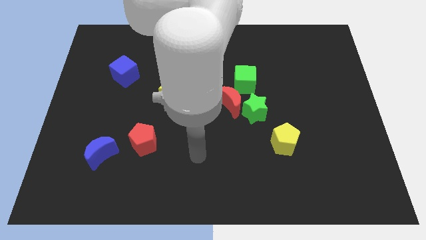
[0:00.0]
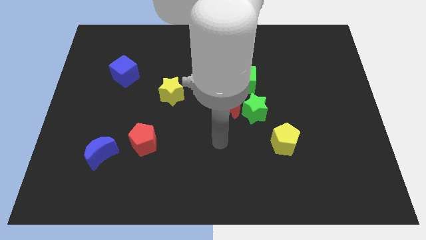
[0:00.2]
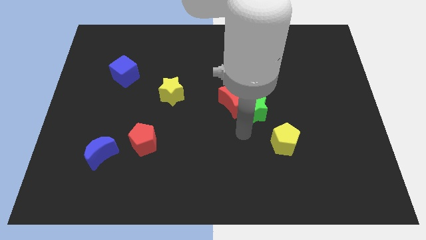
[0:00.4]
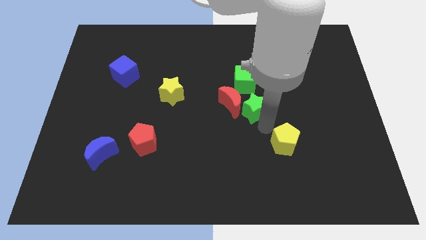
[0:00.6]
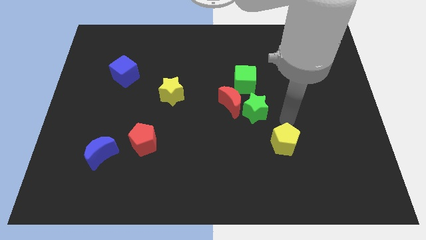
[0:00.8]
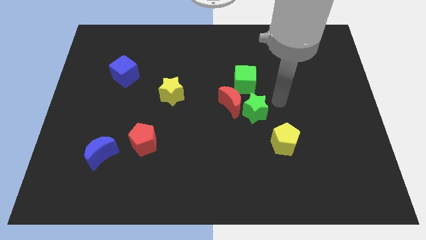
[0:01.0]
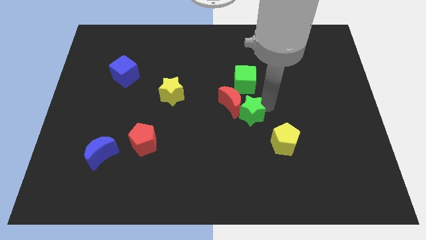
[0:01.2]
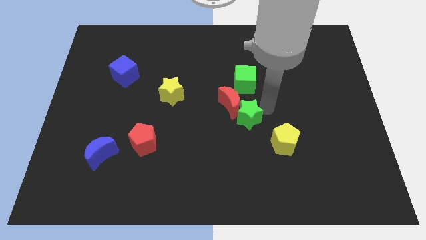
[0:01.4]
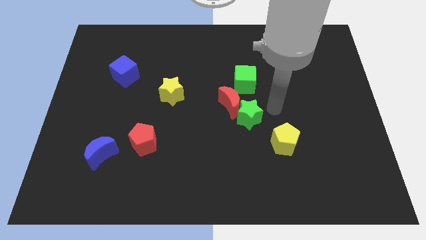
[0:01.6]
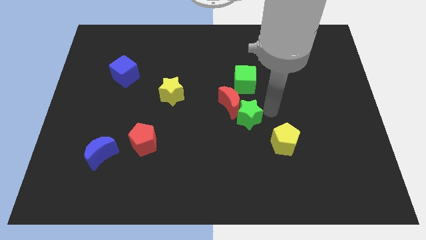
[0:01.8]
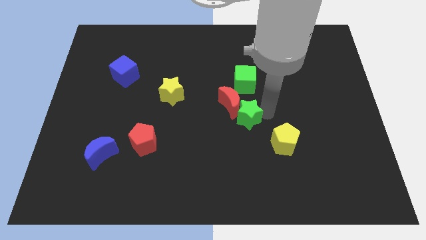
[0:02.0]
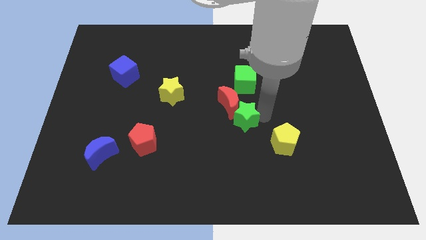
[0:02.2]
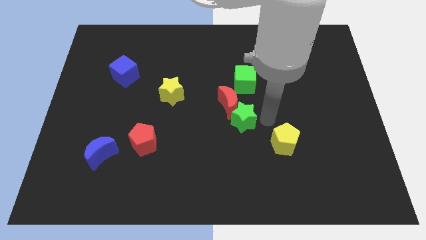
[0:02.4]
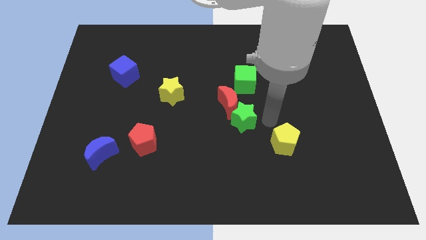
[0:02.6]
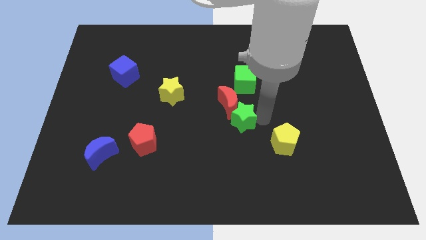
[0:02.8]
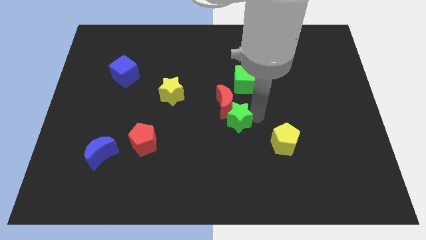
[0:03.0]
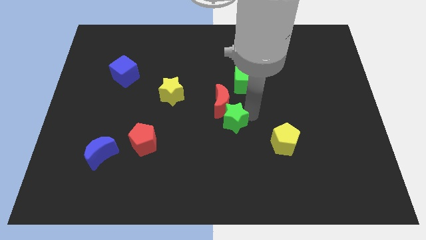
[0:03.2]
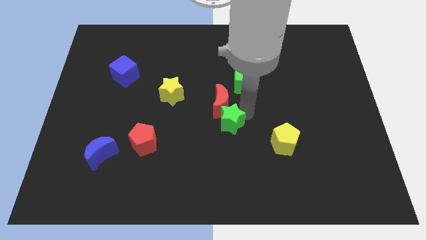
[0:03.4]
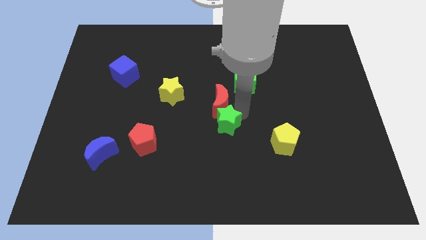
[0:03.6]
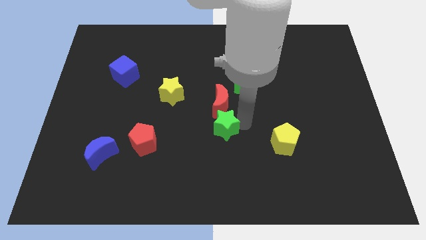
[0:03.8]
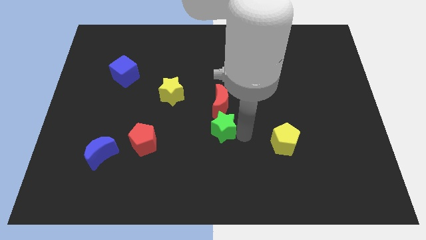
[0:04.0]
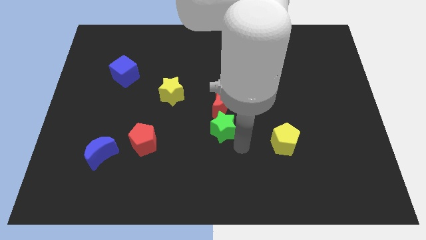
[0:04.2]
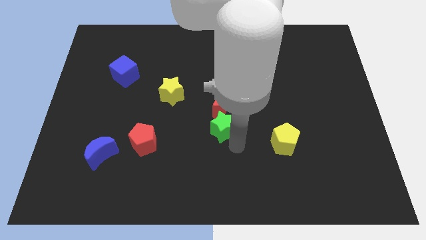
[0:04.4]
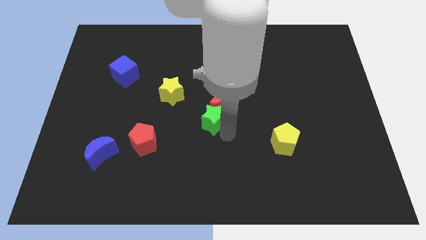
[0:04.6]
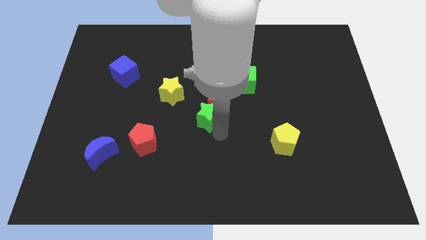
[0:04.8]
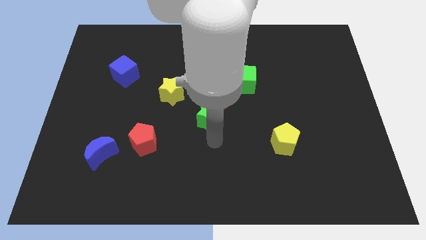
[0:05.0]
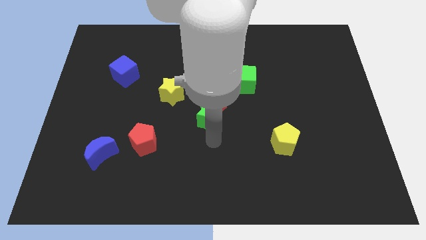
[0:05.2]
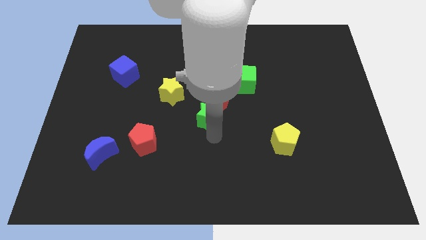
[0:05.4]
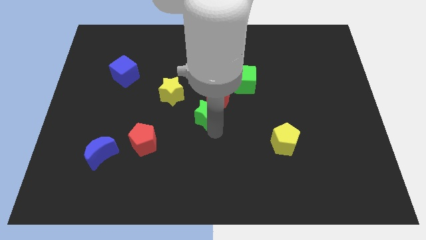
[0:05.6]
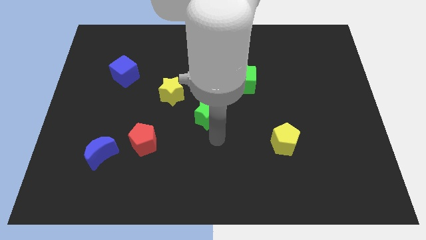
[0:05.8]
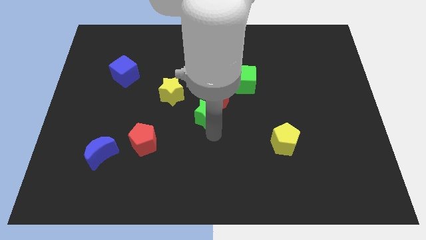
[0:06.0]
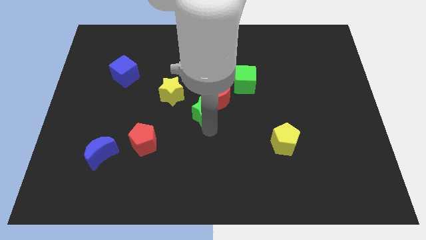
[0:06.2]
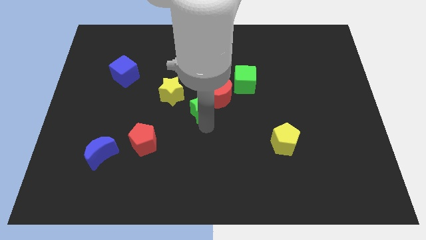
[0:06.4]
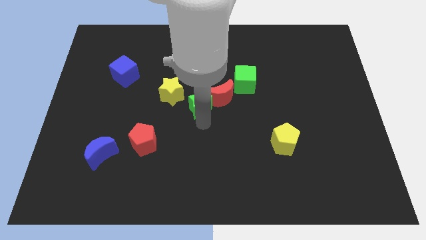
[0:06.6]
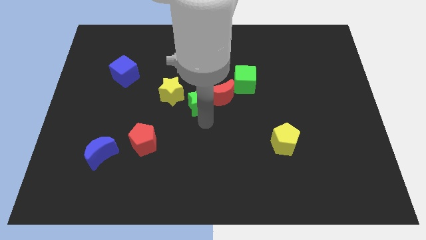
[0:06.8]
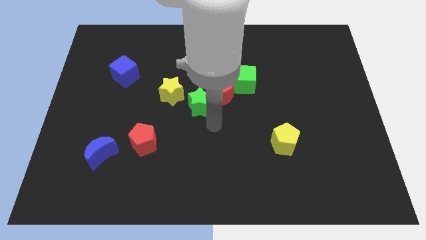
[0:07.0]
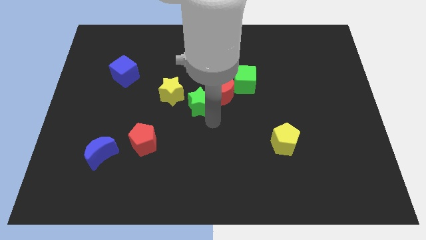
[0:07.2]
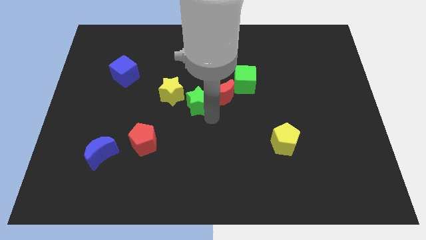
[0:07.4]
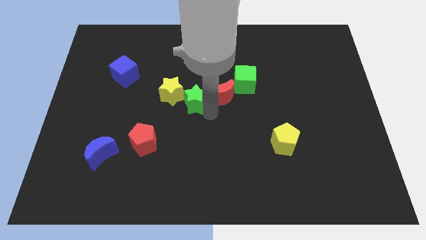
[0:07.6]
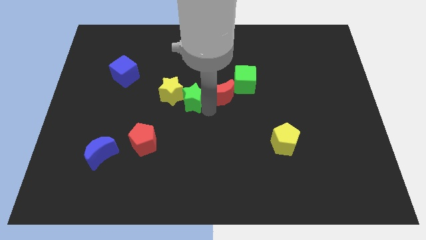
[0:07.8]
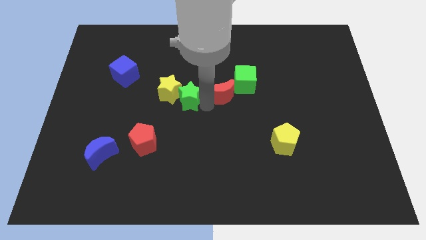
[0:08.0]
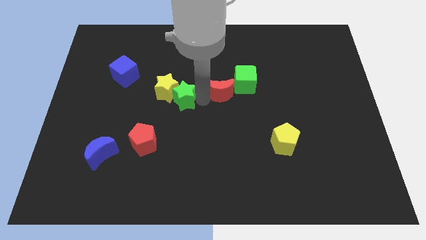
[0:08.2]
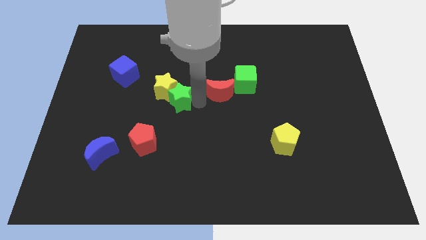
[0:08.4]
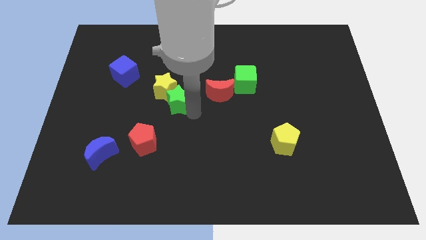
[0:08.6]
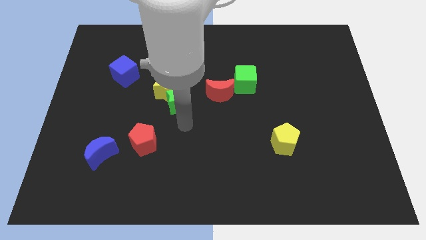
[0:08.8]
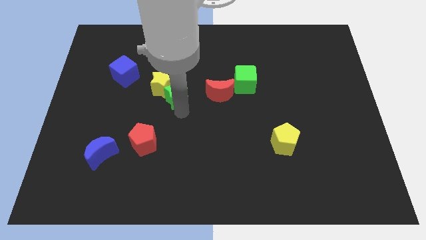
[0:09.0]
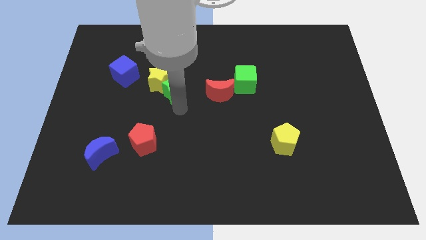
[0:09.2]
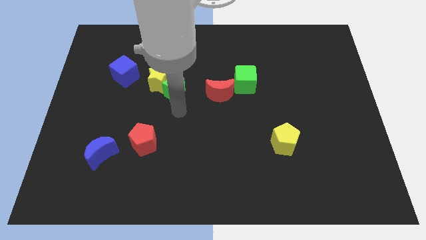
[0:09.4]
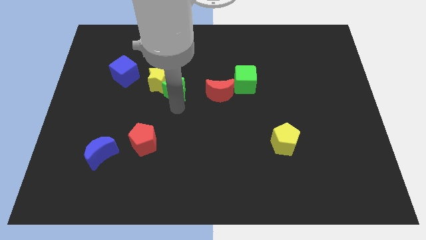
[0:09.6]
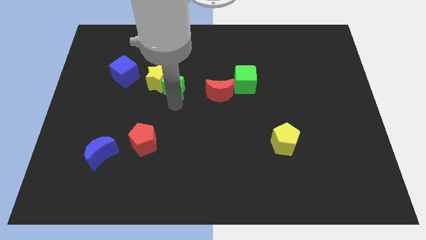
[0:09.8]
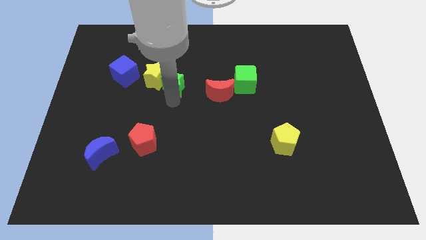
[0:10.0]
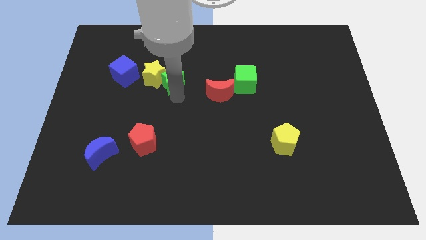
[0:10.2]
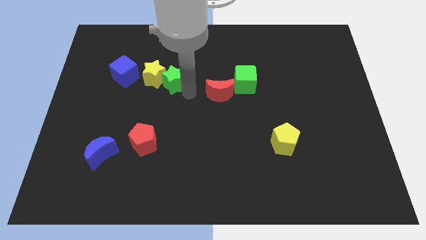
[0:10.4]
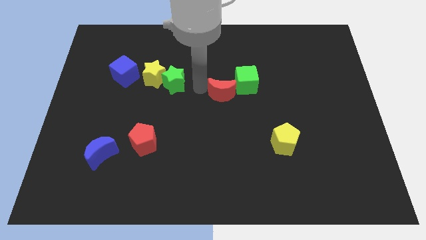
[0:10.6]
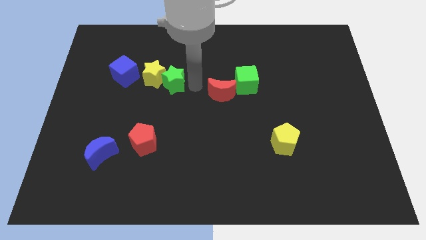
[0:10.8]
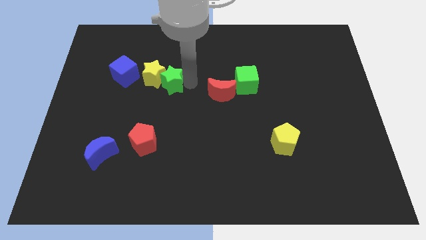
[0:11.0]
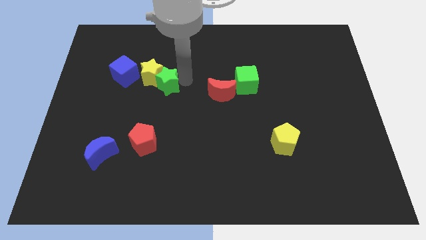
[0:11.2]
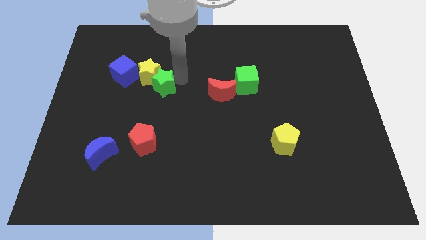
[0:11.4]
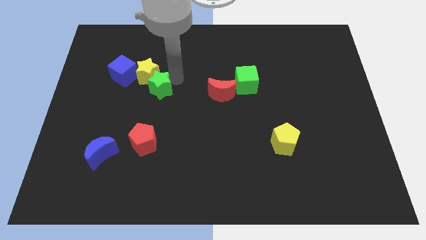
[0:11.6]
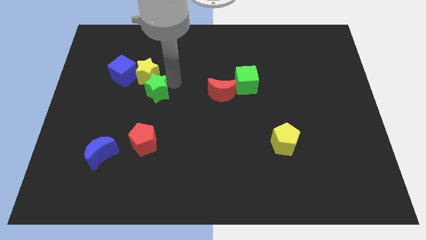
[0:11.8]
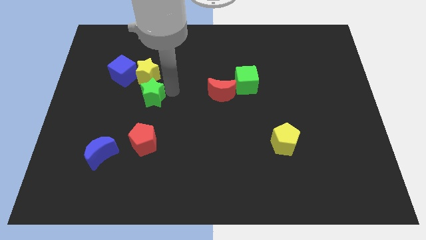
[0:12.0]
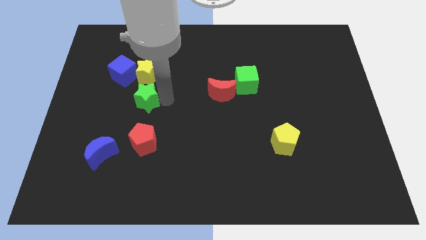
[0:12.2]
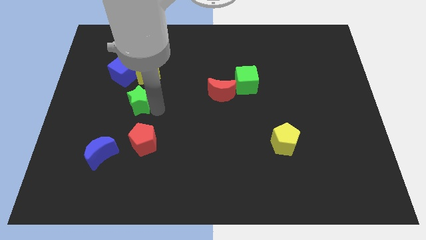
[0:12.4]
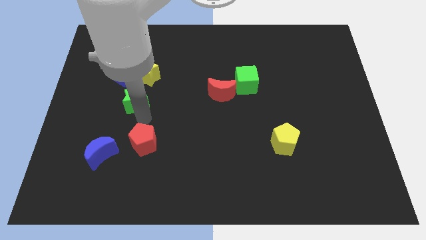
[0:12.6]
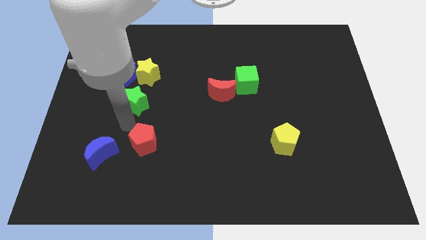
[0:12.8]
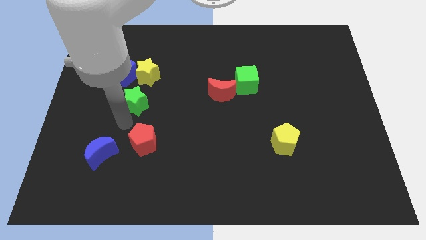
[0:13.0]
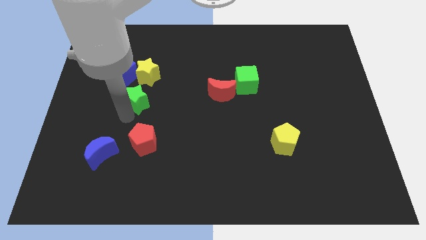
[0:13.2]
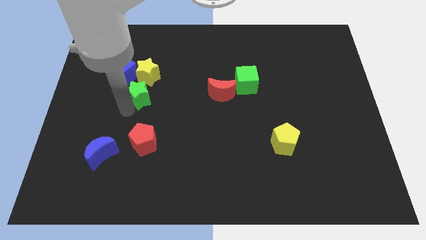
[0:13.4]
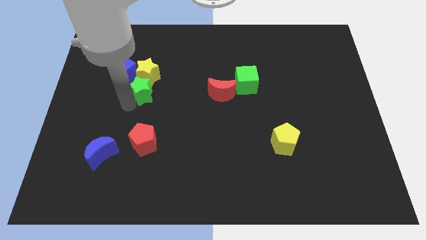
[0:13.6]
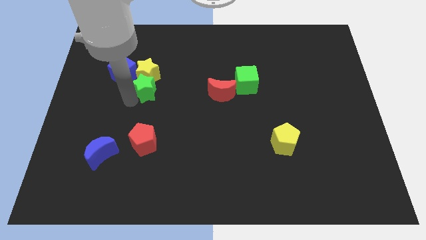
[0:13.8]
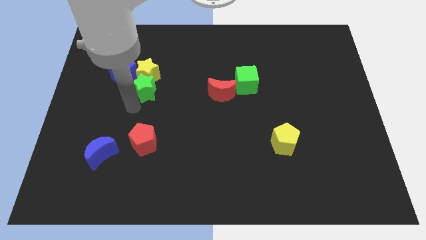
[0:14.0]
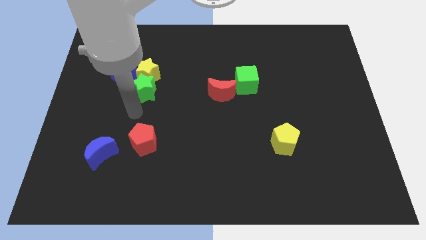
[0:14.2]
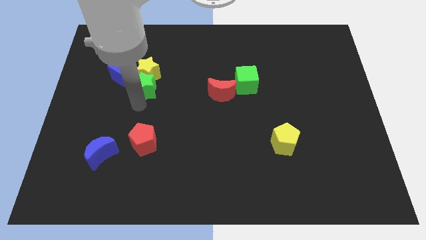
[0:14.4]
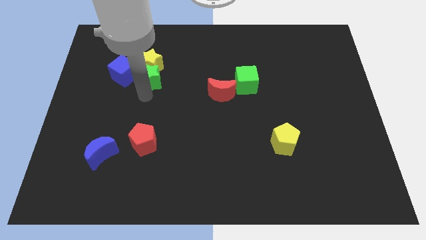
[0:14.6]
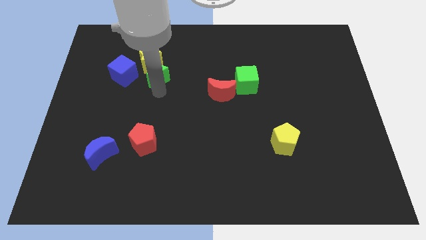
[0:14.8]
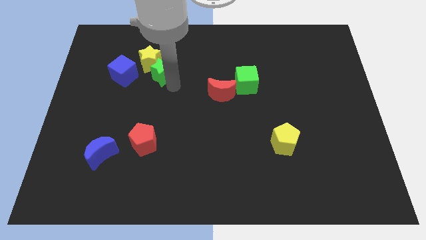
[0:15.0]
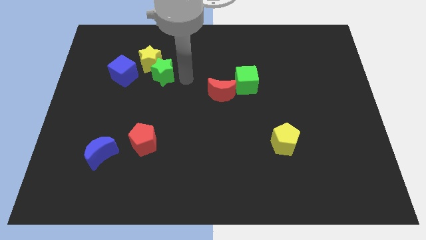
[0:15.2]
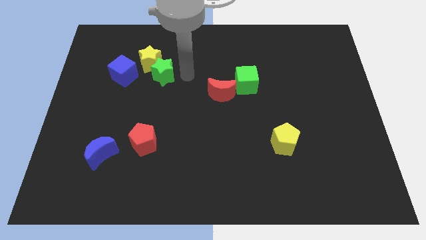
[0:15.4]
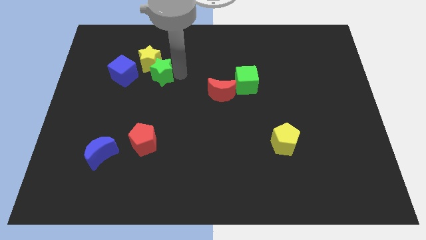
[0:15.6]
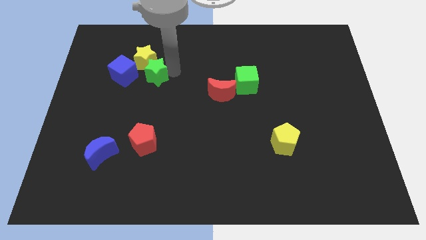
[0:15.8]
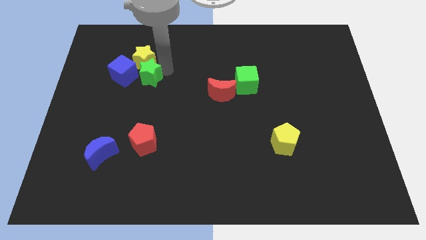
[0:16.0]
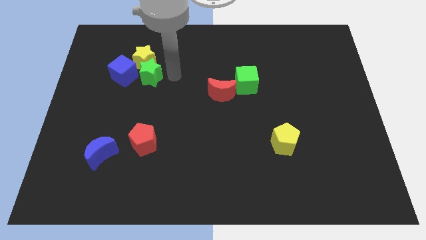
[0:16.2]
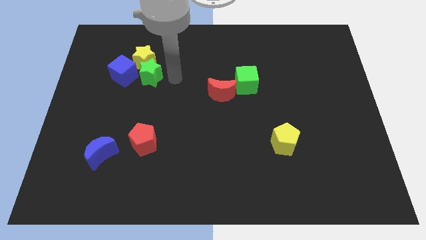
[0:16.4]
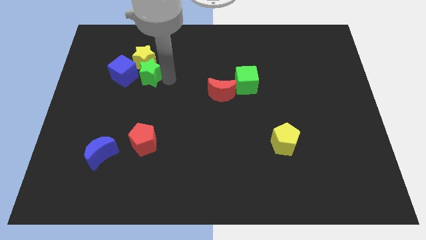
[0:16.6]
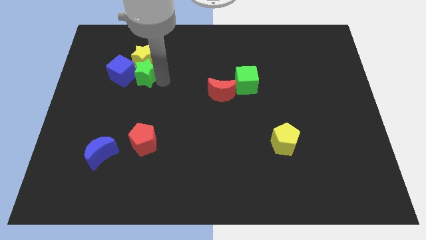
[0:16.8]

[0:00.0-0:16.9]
slide the green star next to the blue cube
